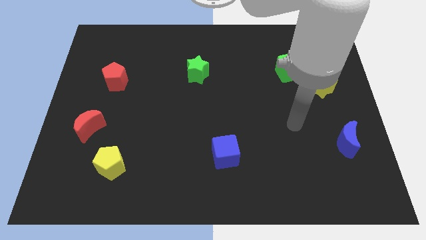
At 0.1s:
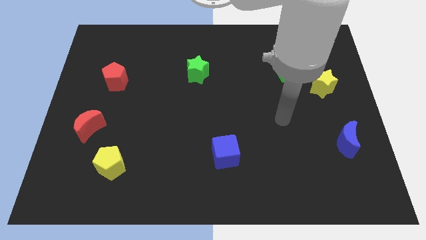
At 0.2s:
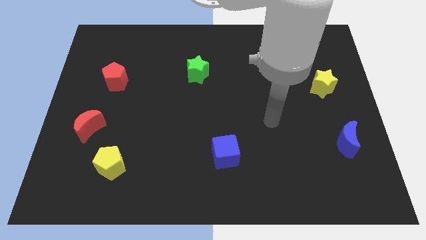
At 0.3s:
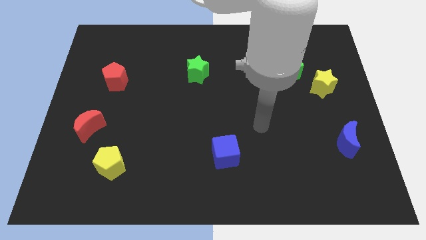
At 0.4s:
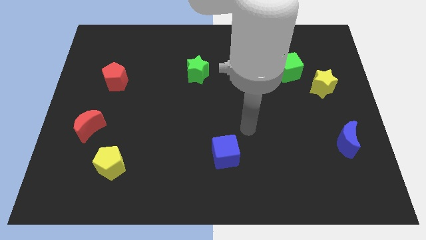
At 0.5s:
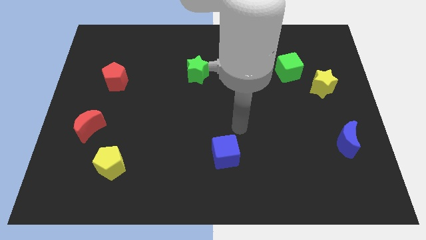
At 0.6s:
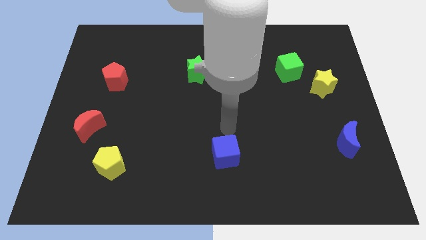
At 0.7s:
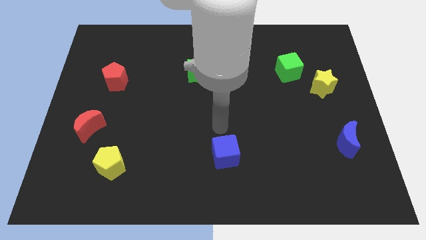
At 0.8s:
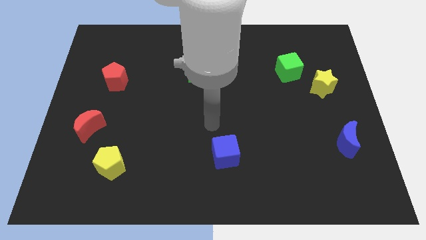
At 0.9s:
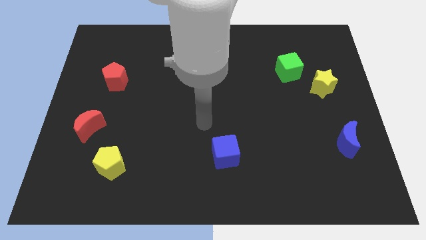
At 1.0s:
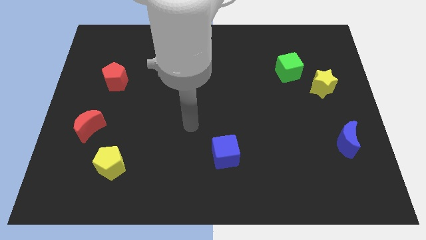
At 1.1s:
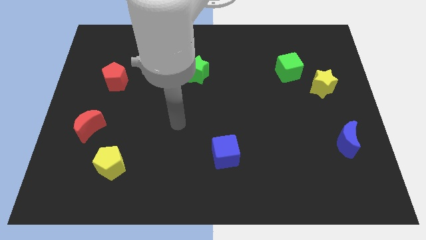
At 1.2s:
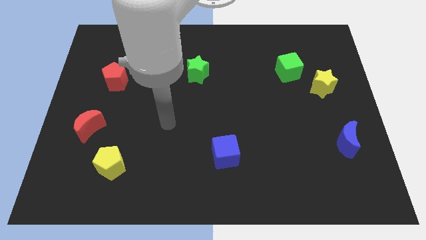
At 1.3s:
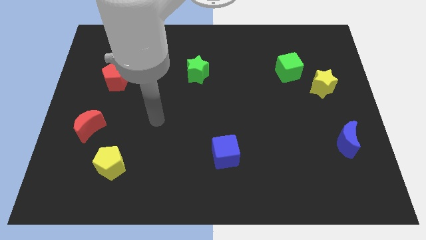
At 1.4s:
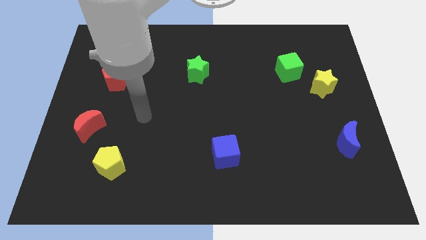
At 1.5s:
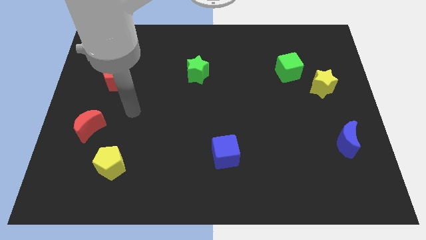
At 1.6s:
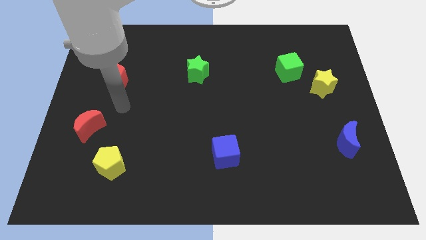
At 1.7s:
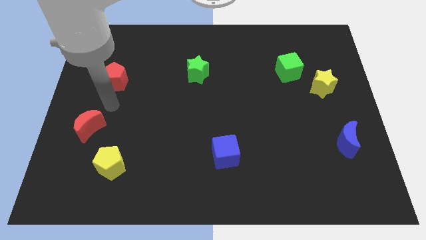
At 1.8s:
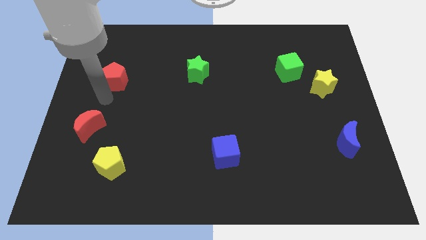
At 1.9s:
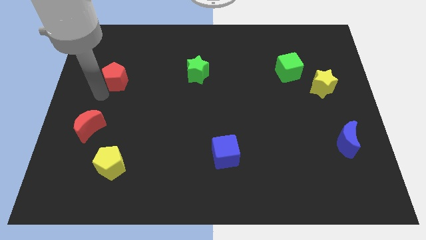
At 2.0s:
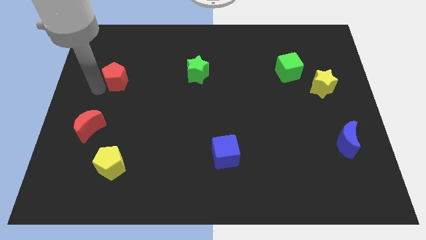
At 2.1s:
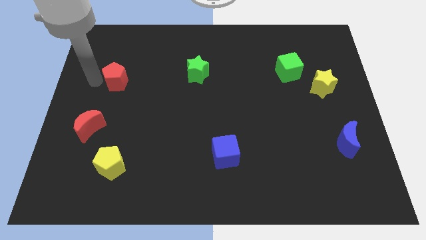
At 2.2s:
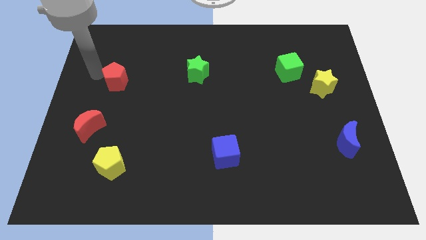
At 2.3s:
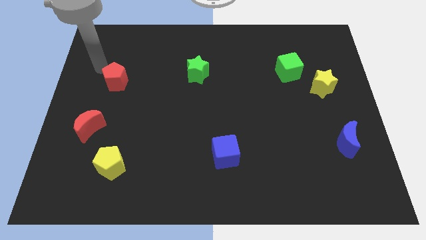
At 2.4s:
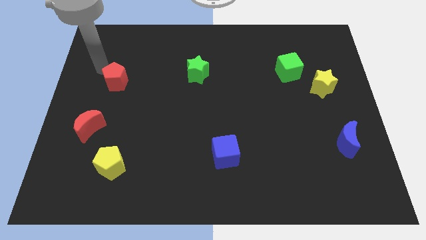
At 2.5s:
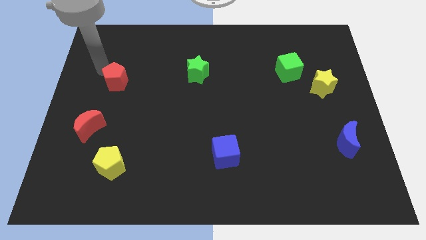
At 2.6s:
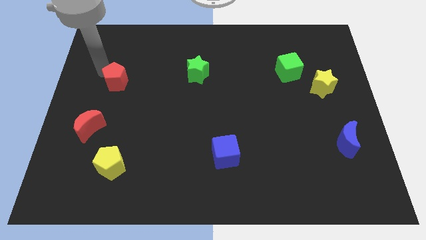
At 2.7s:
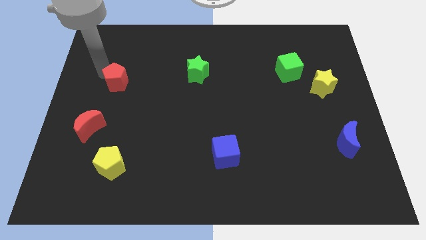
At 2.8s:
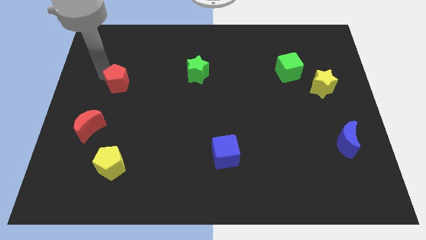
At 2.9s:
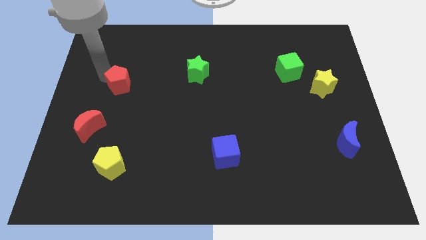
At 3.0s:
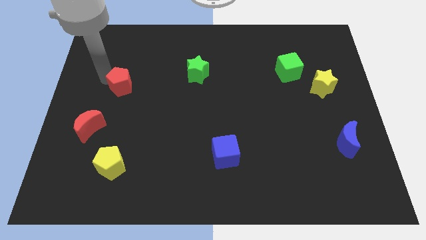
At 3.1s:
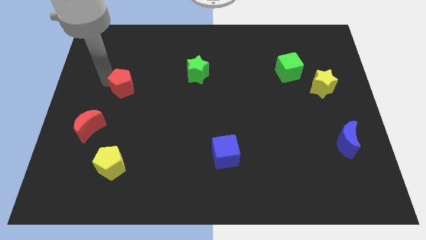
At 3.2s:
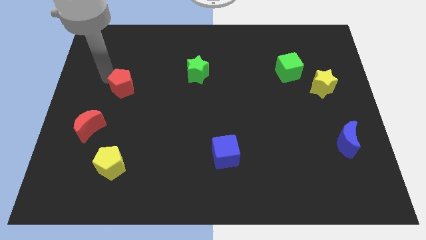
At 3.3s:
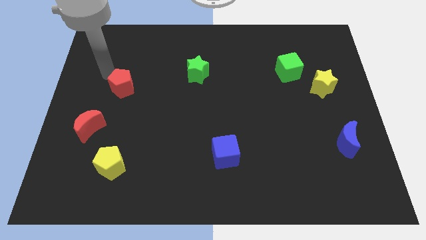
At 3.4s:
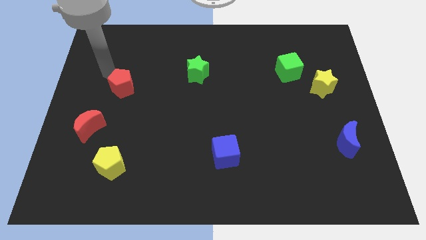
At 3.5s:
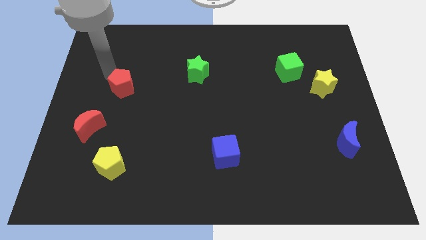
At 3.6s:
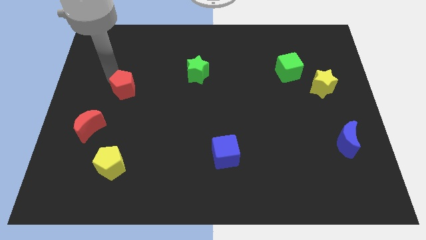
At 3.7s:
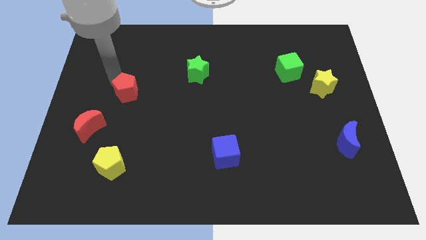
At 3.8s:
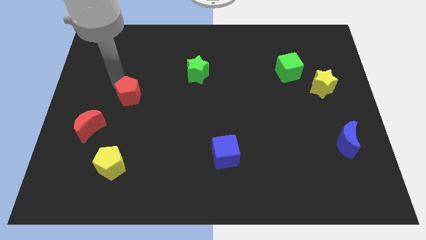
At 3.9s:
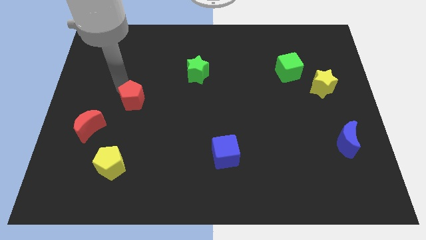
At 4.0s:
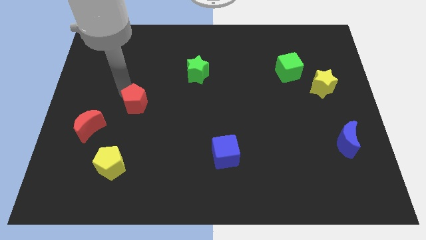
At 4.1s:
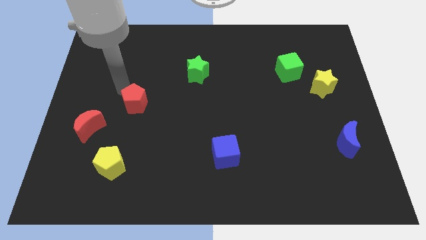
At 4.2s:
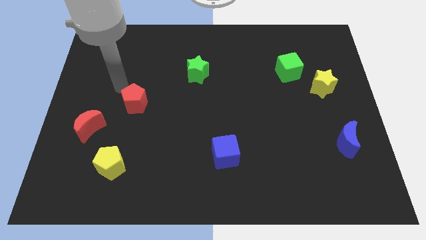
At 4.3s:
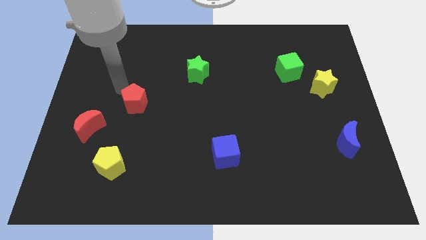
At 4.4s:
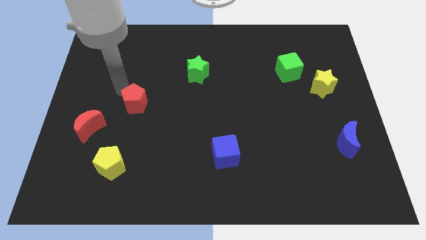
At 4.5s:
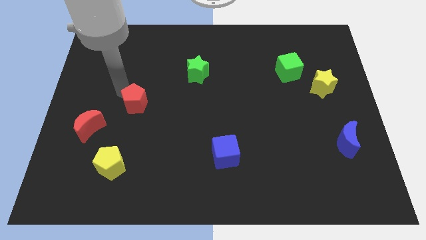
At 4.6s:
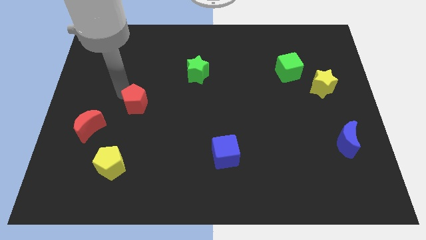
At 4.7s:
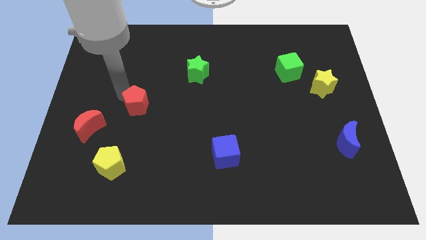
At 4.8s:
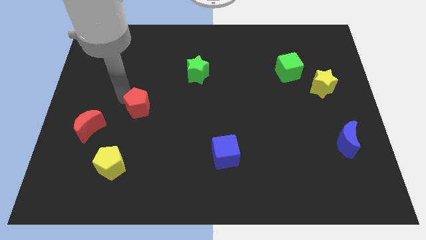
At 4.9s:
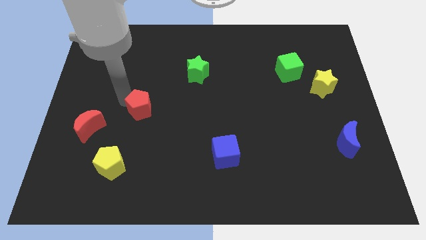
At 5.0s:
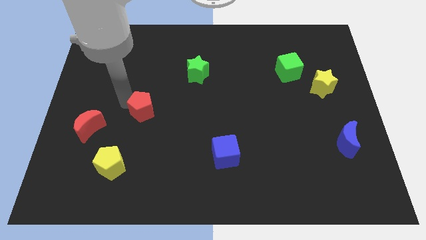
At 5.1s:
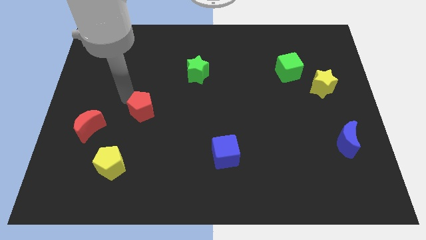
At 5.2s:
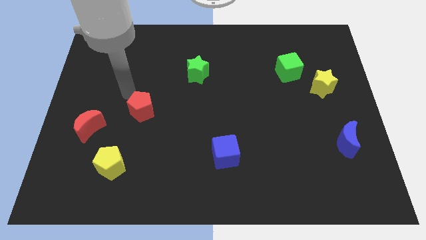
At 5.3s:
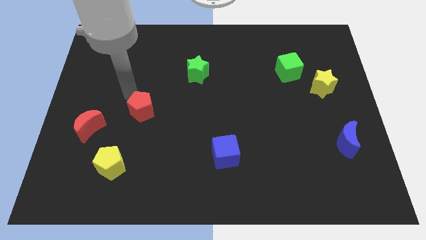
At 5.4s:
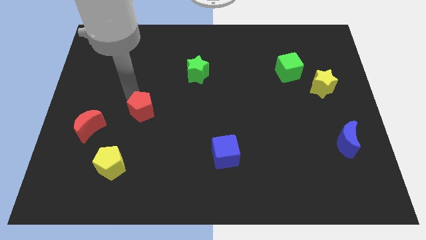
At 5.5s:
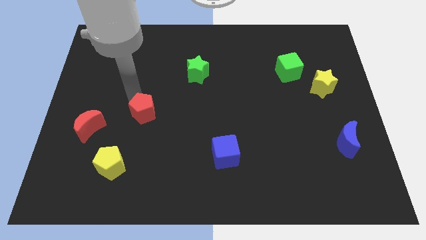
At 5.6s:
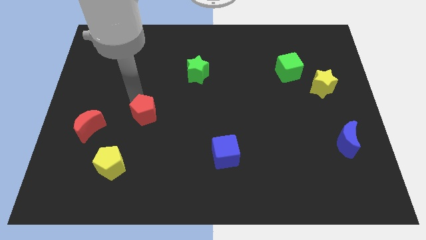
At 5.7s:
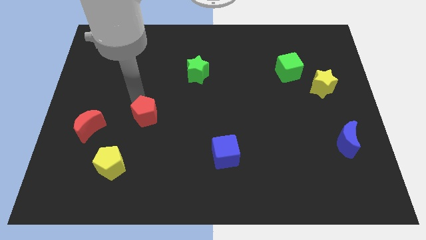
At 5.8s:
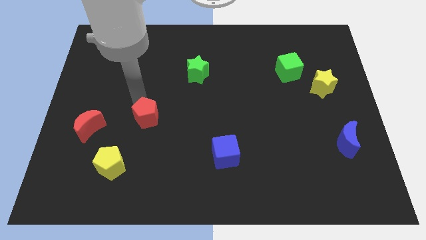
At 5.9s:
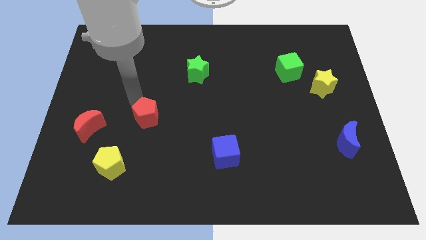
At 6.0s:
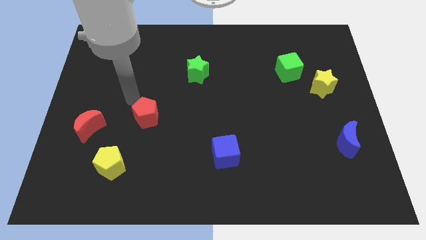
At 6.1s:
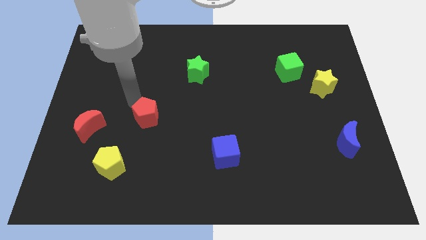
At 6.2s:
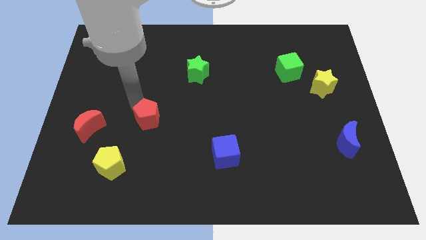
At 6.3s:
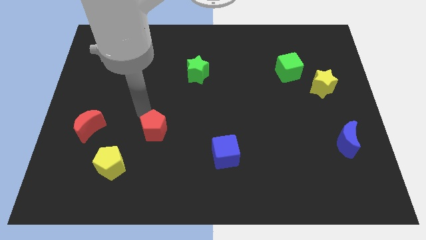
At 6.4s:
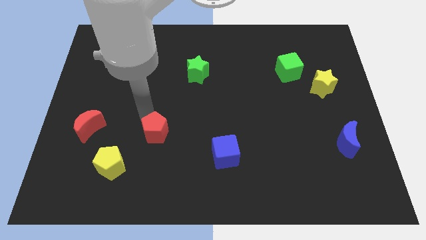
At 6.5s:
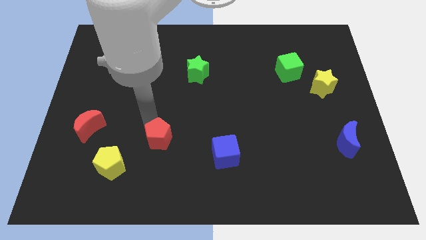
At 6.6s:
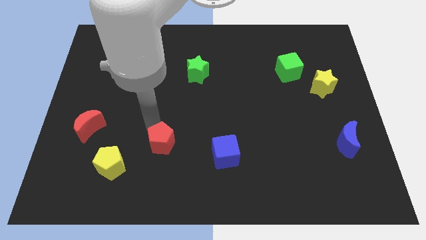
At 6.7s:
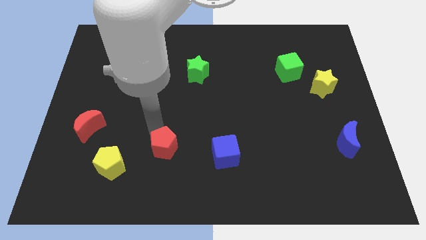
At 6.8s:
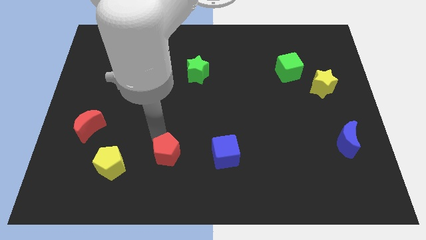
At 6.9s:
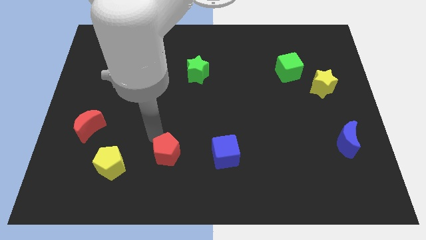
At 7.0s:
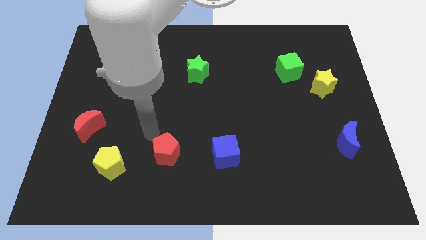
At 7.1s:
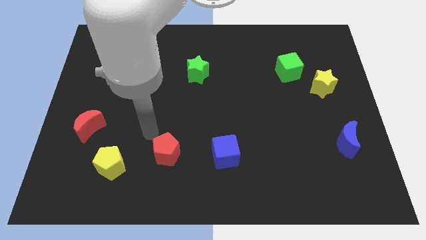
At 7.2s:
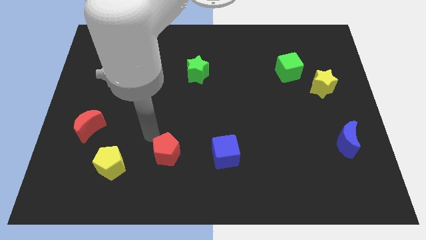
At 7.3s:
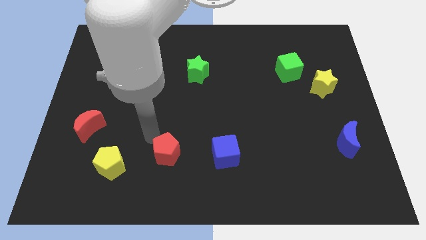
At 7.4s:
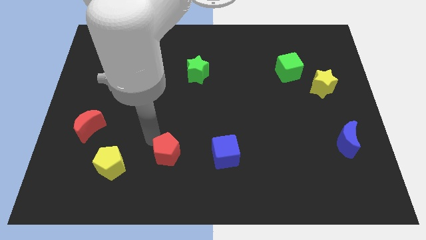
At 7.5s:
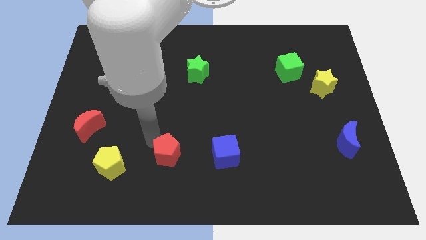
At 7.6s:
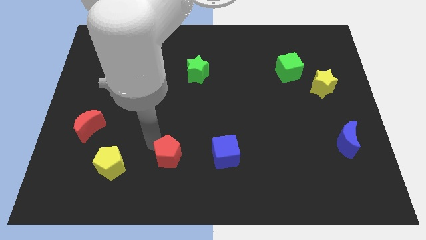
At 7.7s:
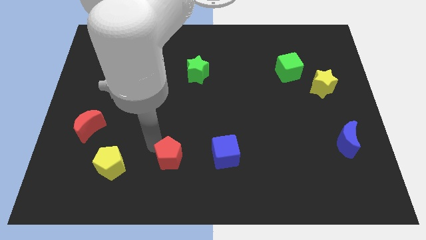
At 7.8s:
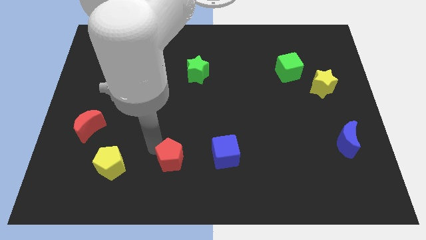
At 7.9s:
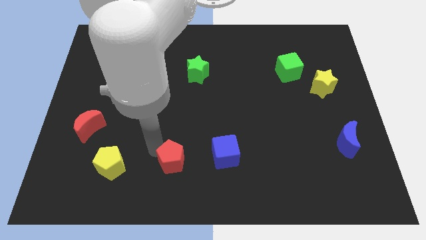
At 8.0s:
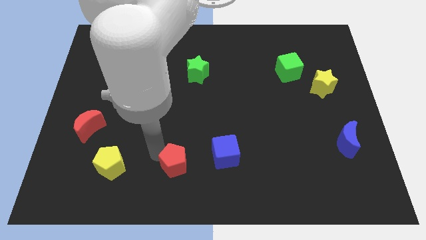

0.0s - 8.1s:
move the red pentagon to the bottom
